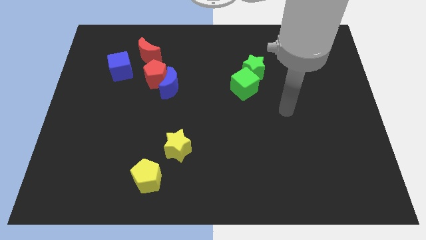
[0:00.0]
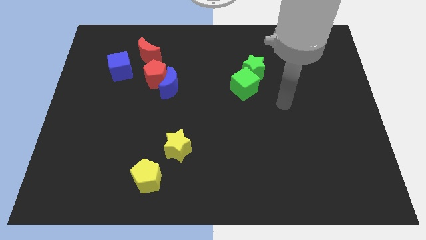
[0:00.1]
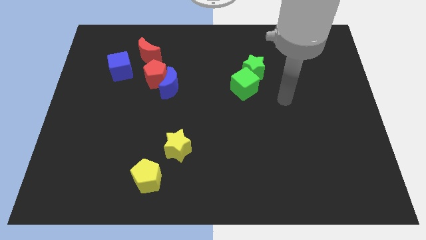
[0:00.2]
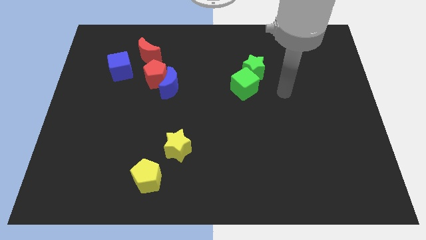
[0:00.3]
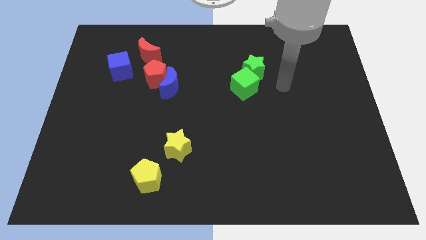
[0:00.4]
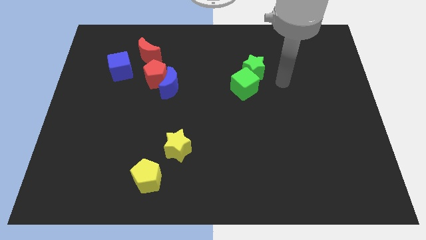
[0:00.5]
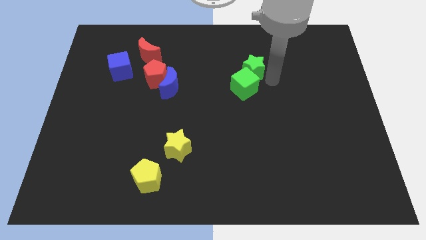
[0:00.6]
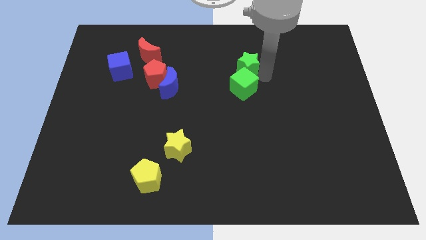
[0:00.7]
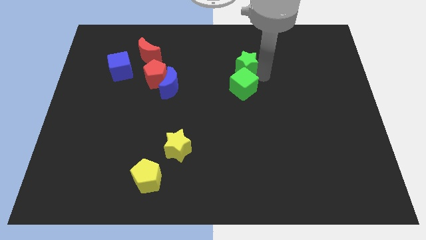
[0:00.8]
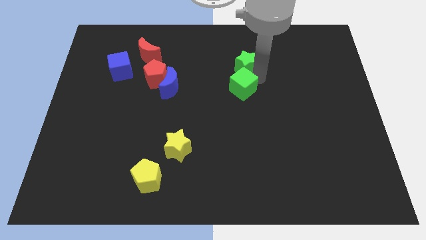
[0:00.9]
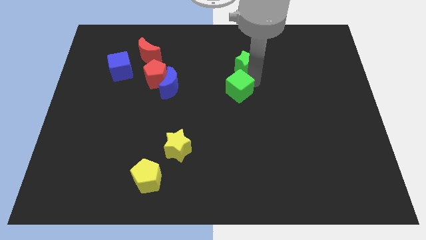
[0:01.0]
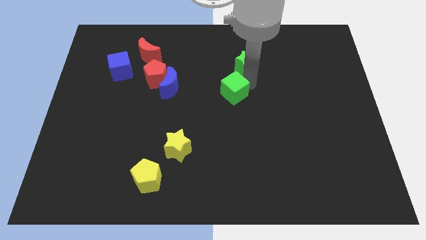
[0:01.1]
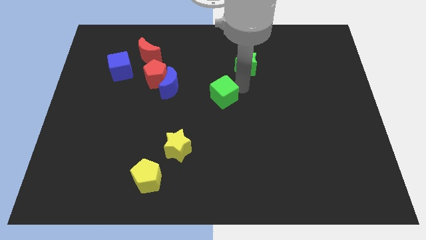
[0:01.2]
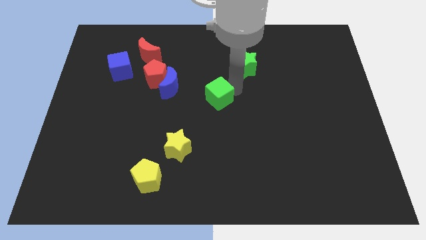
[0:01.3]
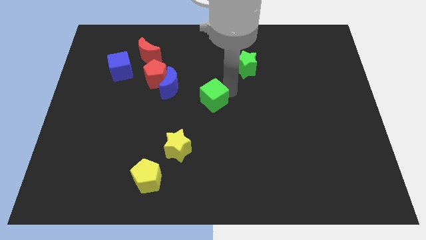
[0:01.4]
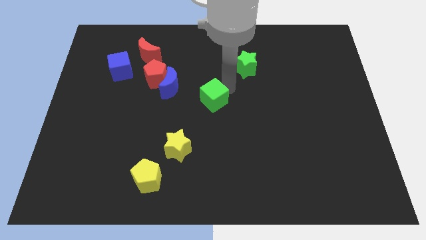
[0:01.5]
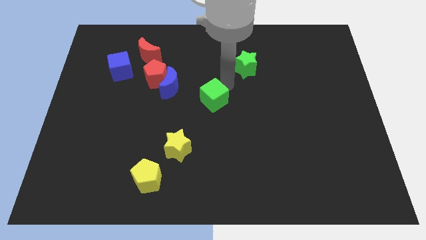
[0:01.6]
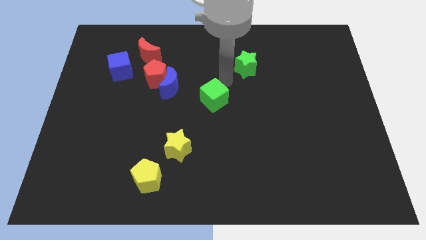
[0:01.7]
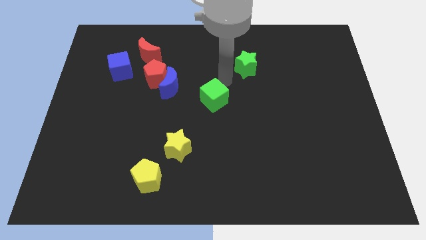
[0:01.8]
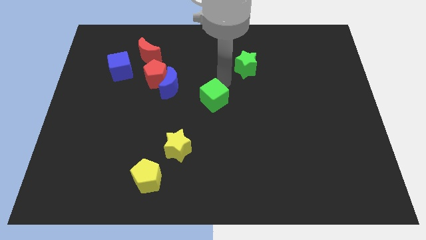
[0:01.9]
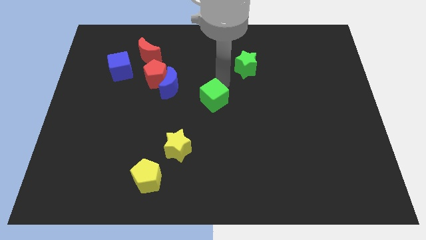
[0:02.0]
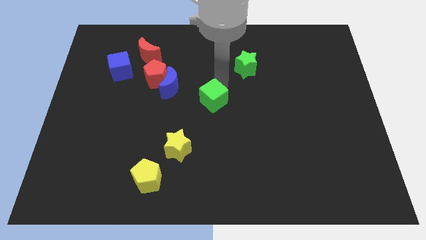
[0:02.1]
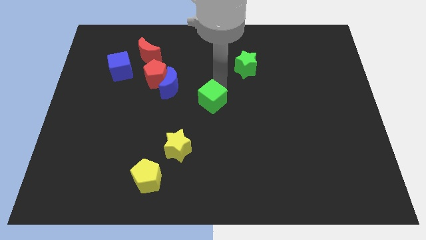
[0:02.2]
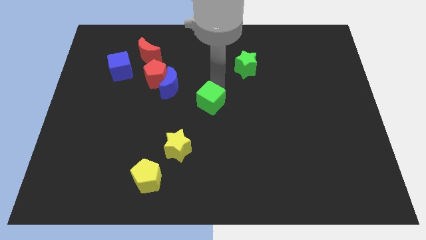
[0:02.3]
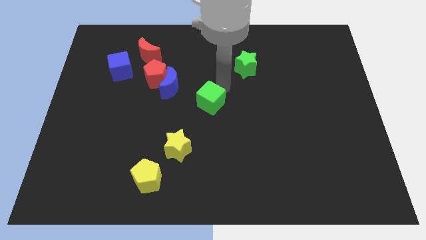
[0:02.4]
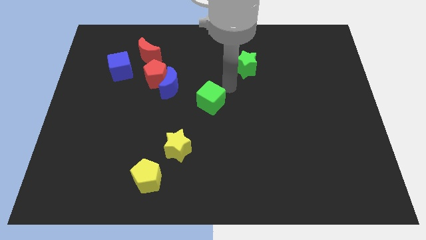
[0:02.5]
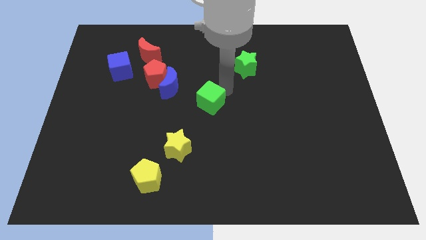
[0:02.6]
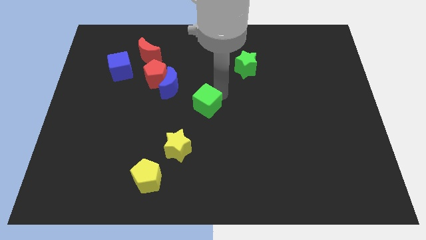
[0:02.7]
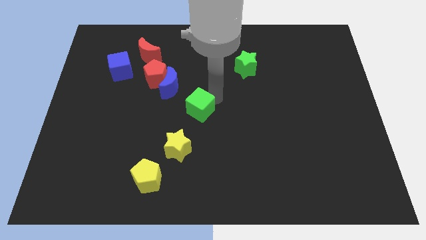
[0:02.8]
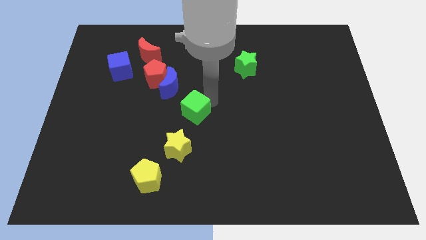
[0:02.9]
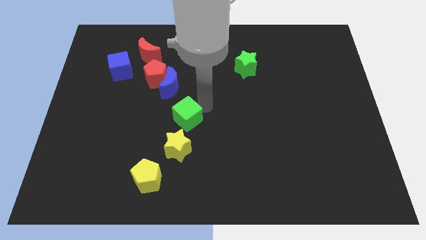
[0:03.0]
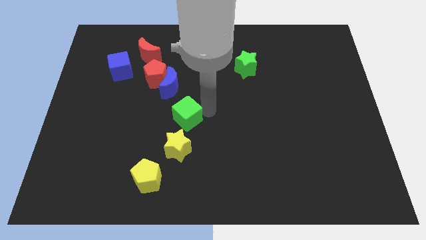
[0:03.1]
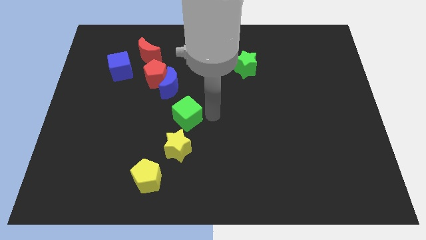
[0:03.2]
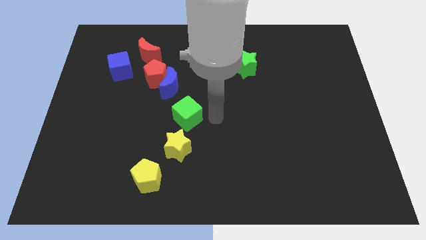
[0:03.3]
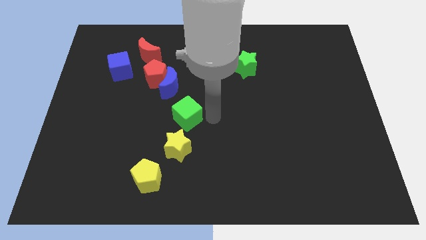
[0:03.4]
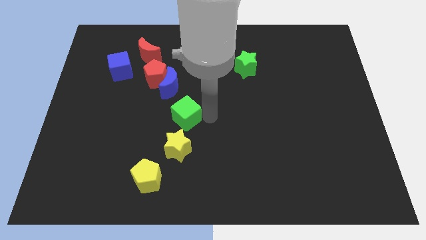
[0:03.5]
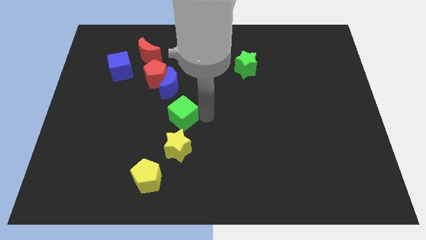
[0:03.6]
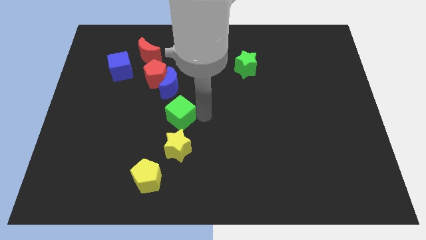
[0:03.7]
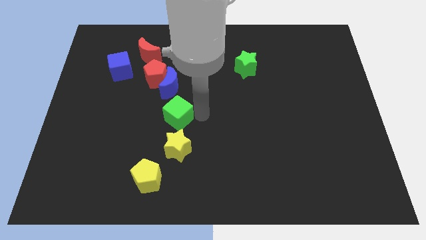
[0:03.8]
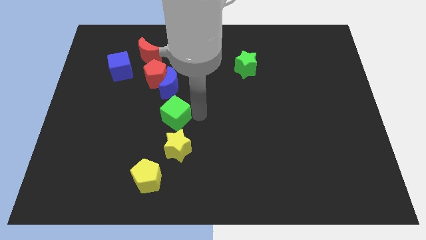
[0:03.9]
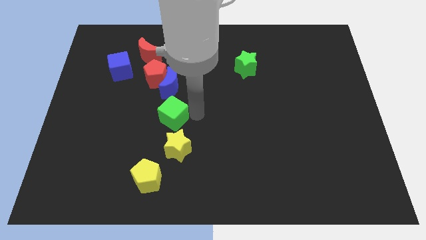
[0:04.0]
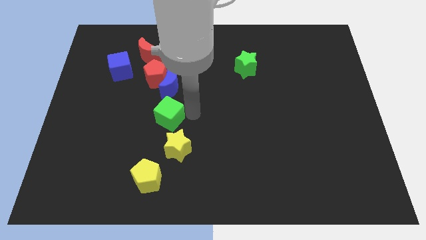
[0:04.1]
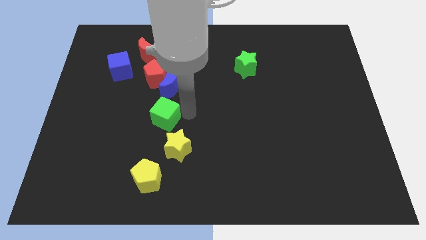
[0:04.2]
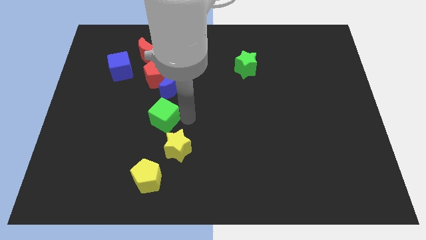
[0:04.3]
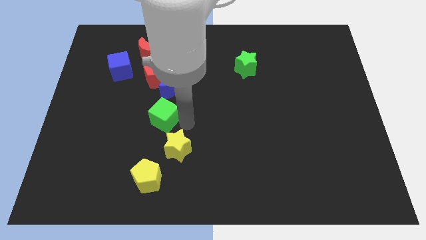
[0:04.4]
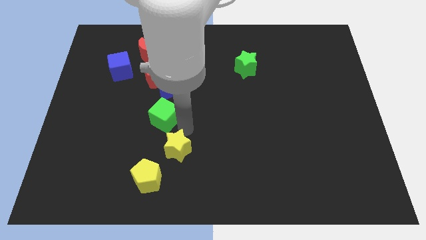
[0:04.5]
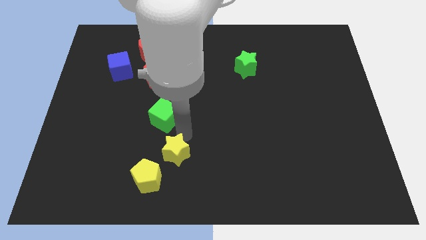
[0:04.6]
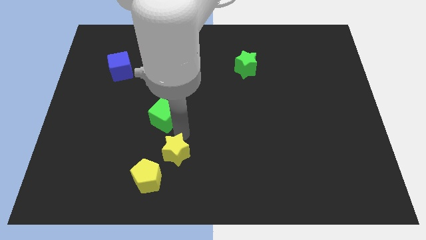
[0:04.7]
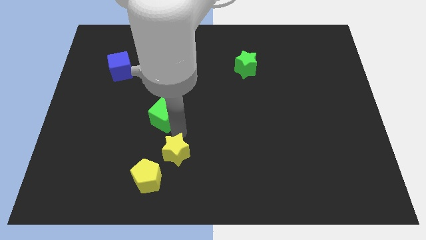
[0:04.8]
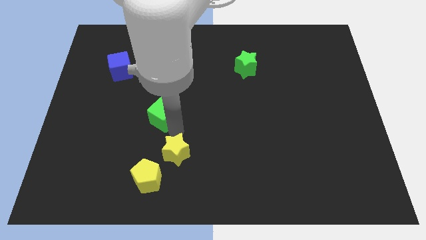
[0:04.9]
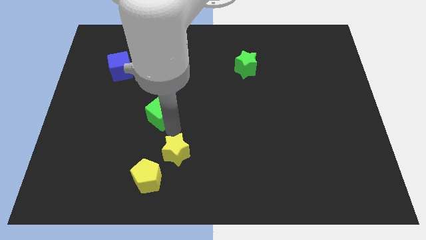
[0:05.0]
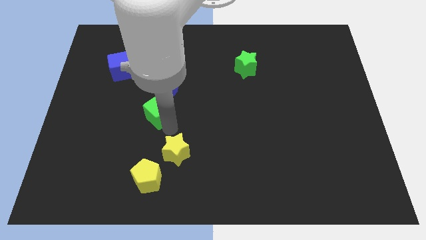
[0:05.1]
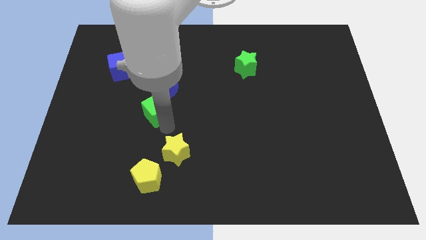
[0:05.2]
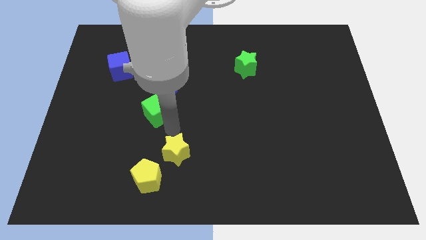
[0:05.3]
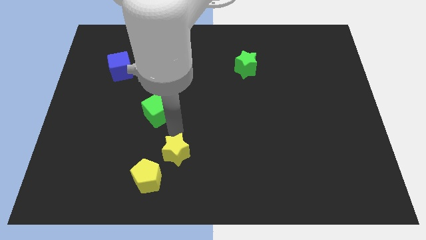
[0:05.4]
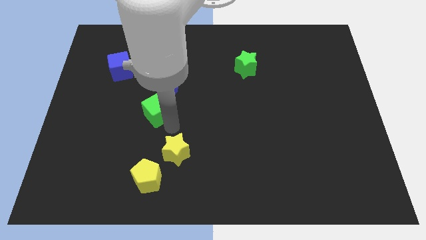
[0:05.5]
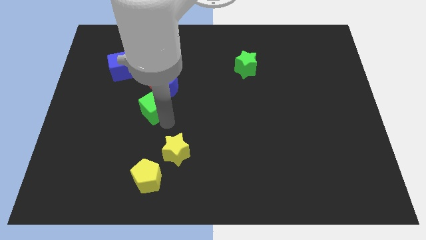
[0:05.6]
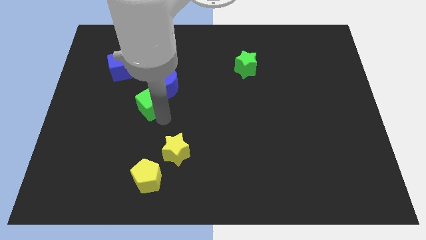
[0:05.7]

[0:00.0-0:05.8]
push the green cube to the left

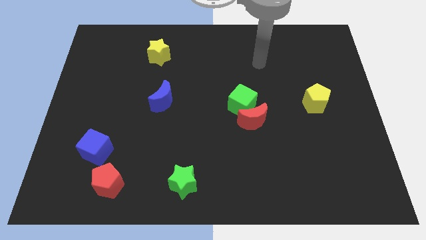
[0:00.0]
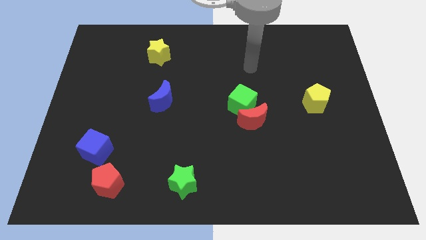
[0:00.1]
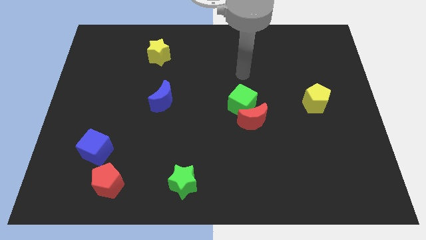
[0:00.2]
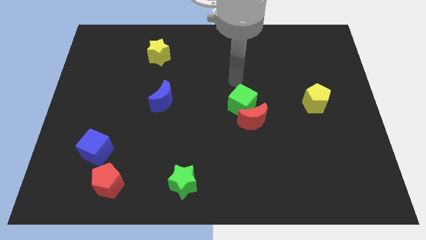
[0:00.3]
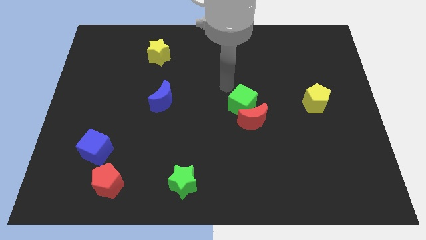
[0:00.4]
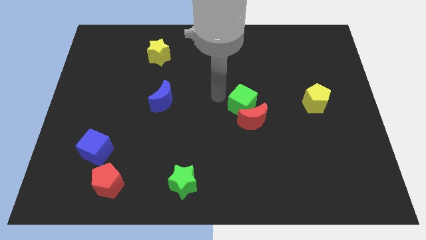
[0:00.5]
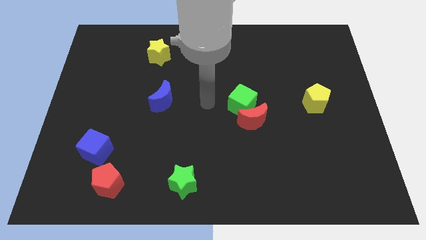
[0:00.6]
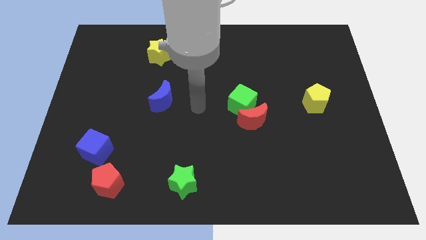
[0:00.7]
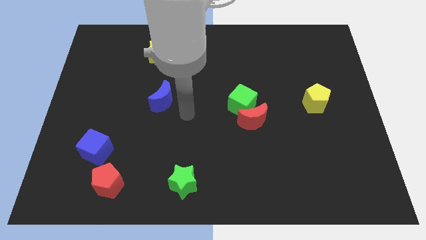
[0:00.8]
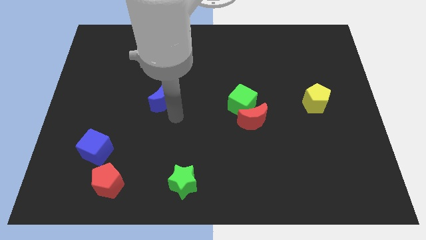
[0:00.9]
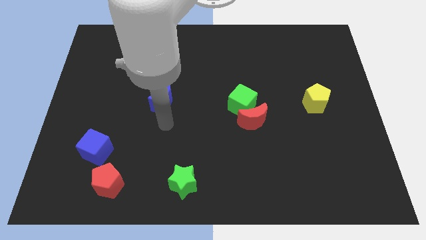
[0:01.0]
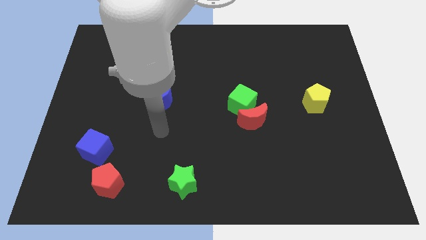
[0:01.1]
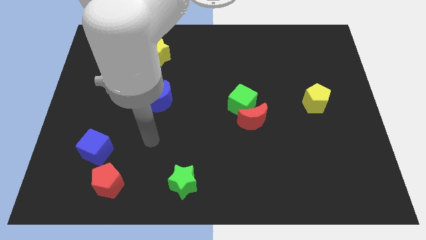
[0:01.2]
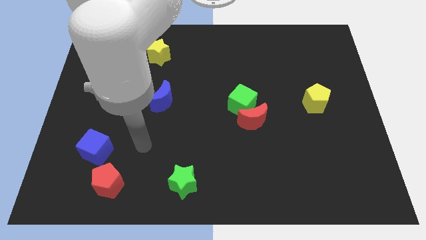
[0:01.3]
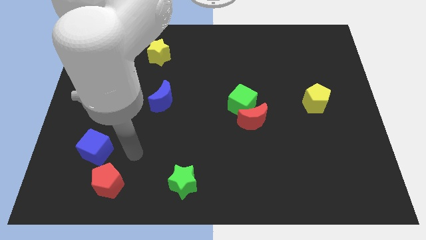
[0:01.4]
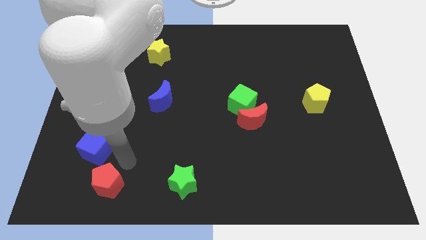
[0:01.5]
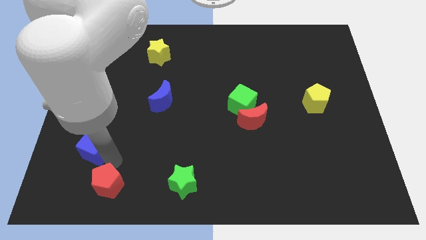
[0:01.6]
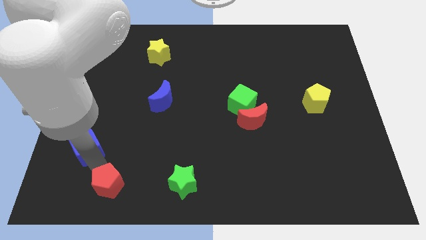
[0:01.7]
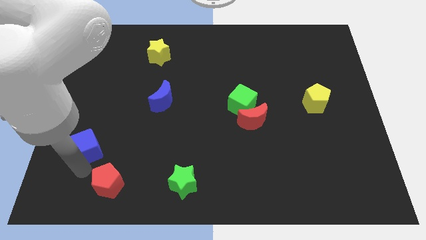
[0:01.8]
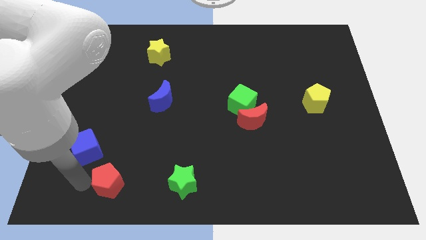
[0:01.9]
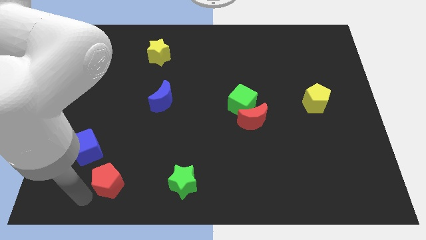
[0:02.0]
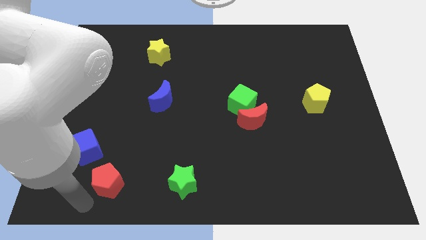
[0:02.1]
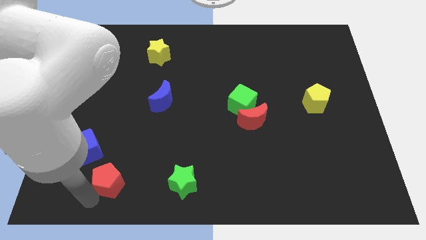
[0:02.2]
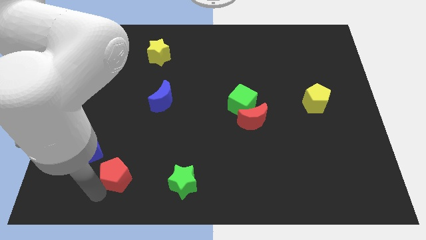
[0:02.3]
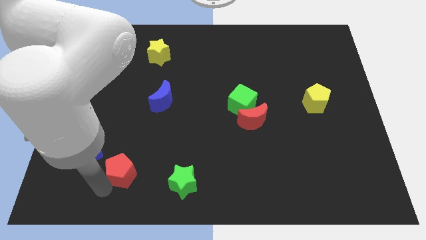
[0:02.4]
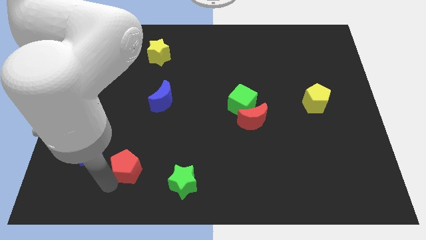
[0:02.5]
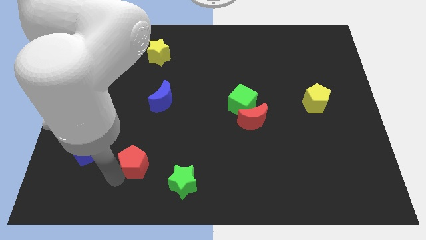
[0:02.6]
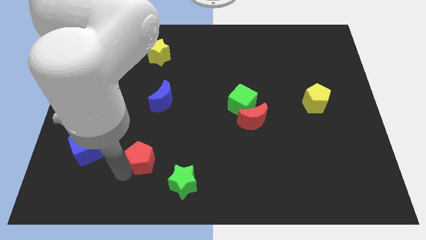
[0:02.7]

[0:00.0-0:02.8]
slide the red pentagon a little diagonally upwards and right
